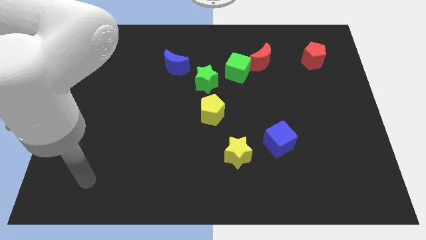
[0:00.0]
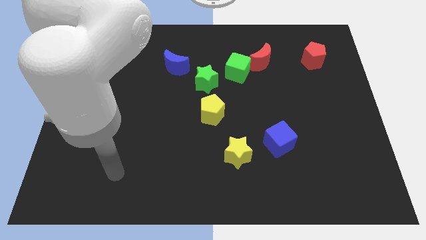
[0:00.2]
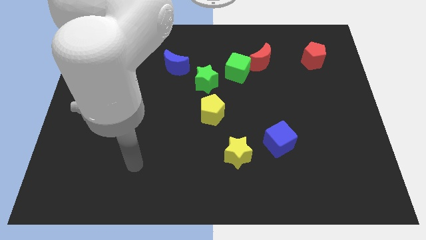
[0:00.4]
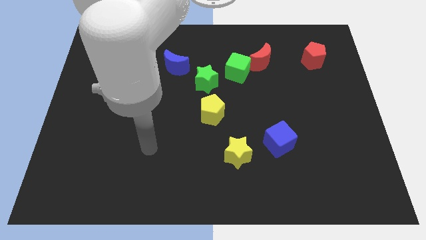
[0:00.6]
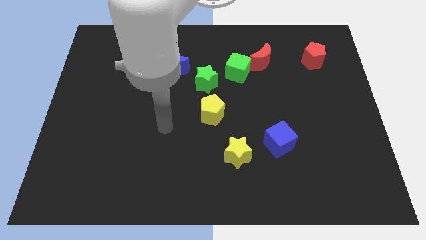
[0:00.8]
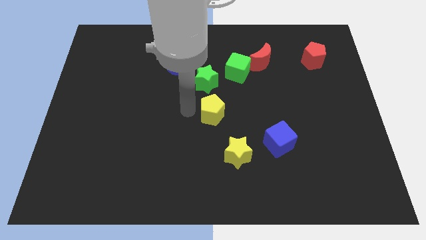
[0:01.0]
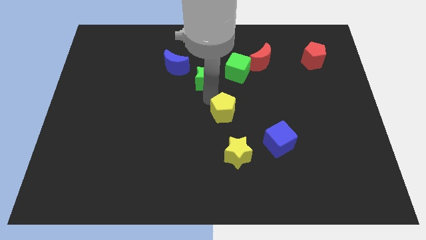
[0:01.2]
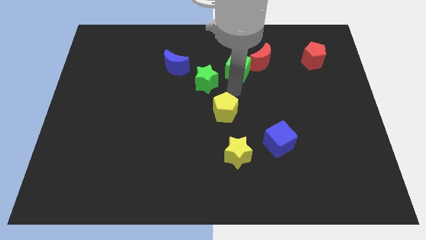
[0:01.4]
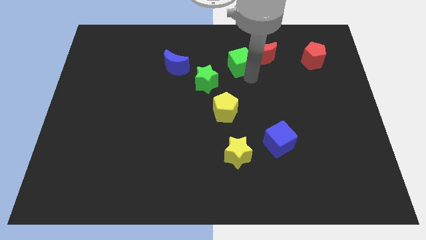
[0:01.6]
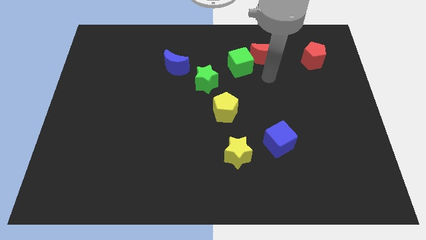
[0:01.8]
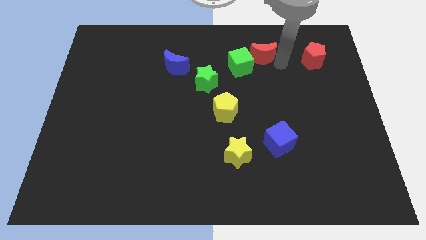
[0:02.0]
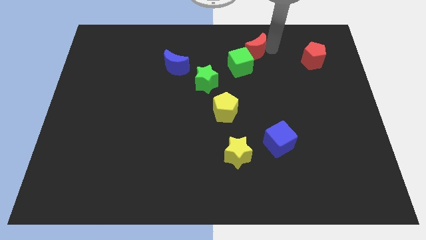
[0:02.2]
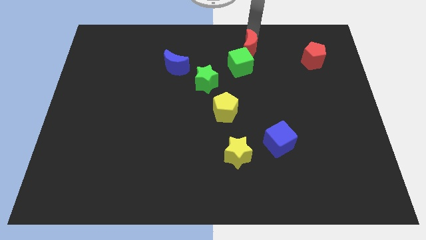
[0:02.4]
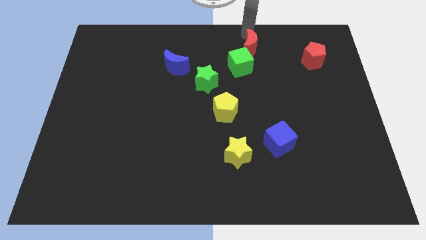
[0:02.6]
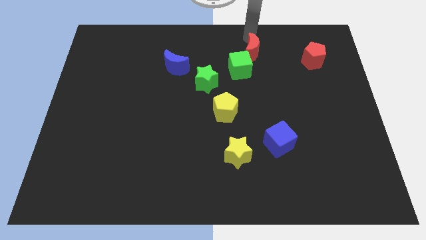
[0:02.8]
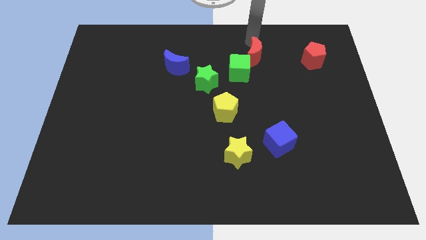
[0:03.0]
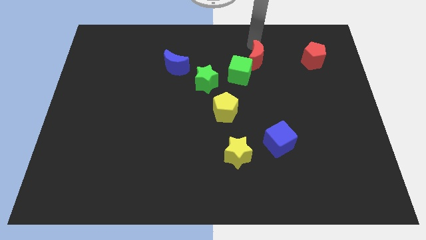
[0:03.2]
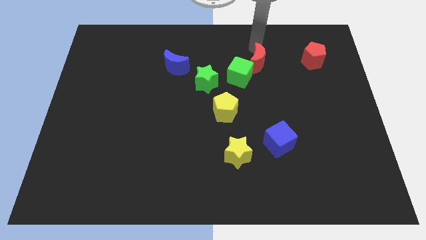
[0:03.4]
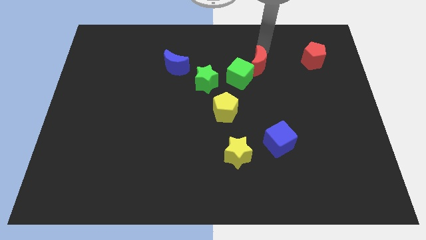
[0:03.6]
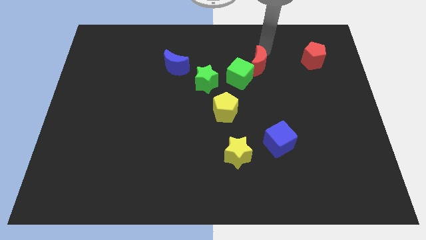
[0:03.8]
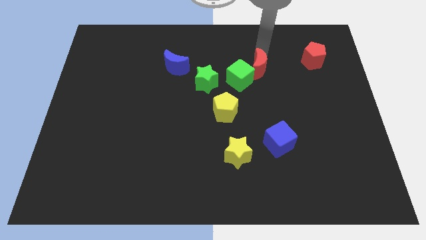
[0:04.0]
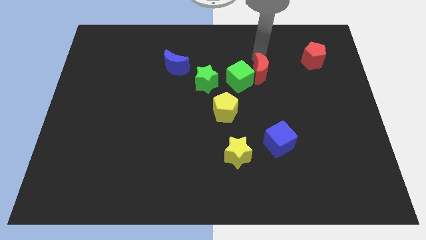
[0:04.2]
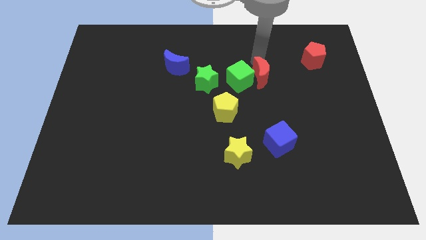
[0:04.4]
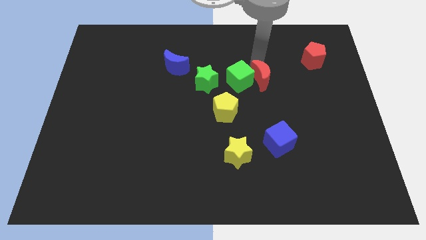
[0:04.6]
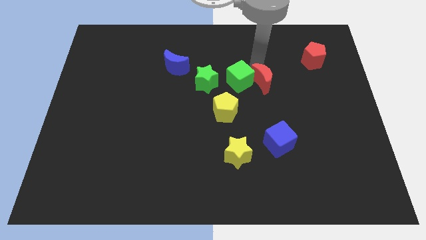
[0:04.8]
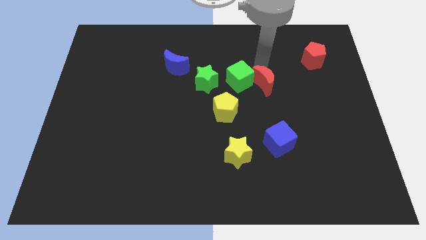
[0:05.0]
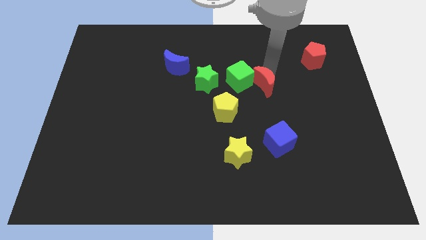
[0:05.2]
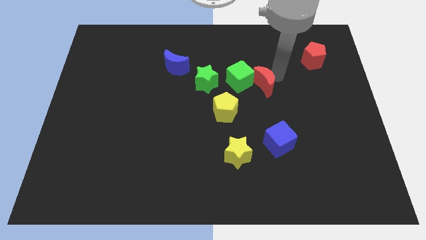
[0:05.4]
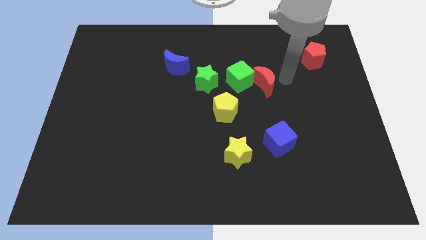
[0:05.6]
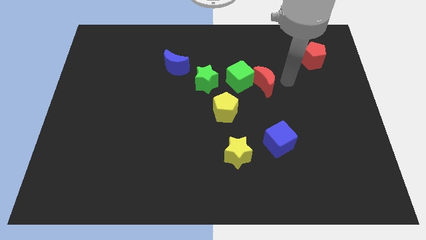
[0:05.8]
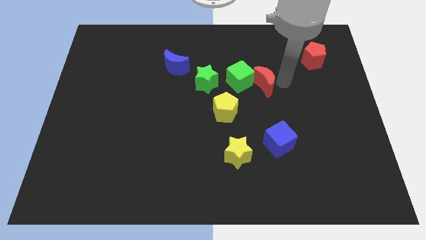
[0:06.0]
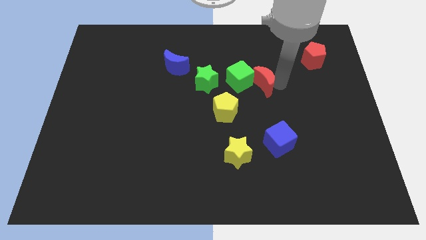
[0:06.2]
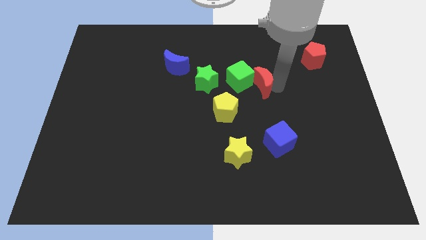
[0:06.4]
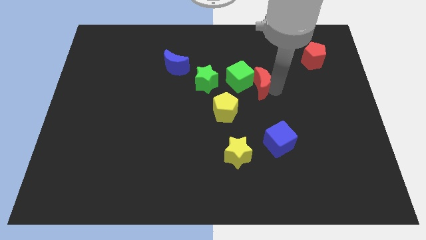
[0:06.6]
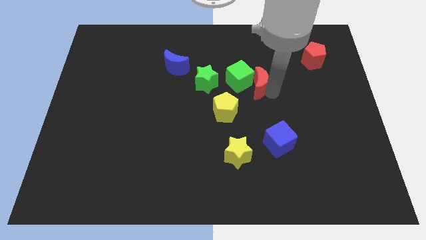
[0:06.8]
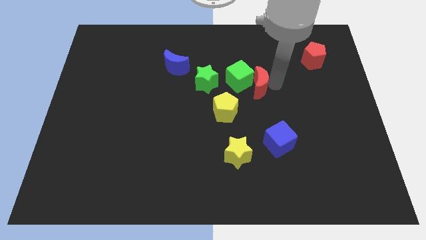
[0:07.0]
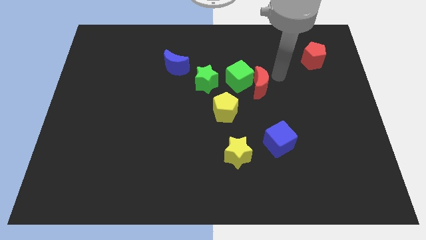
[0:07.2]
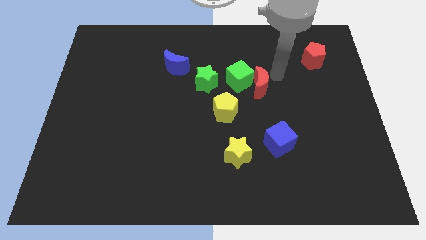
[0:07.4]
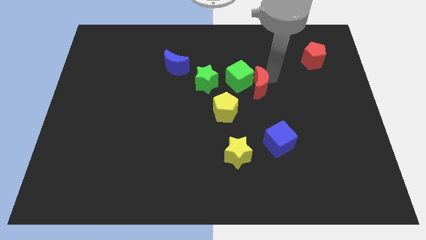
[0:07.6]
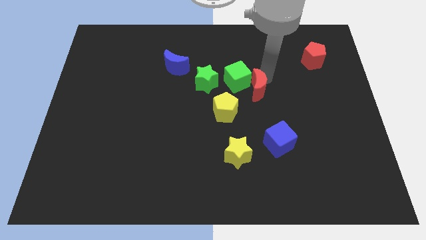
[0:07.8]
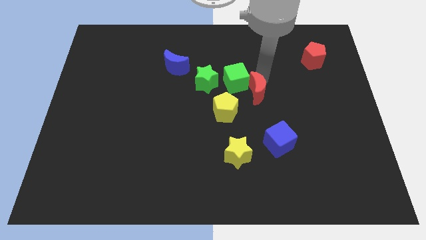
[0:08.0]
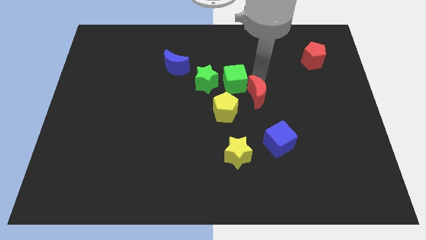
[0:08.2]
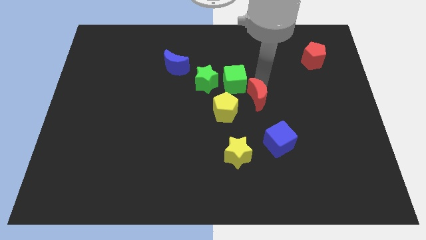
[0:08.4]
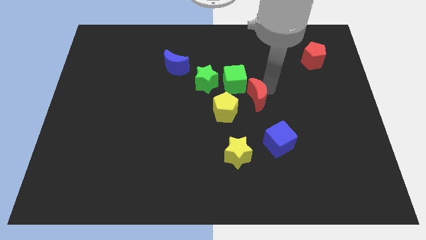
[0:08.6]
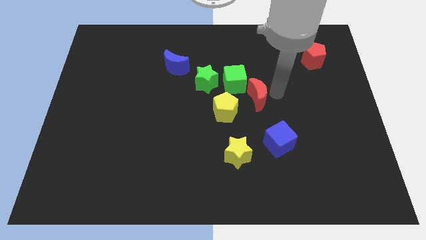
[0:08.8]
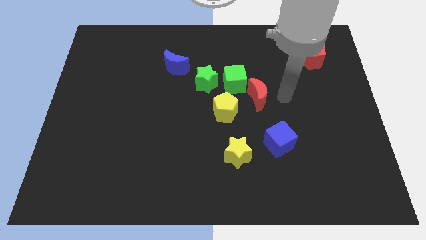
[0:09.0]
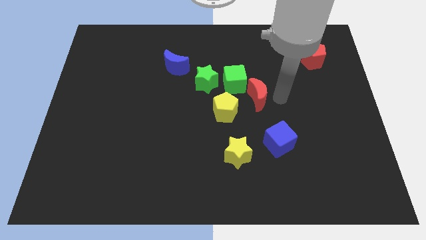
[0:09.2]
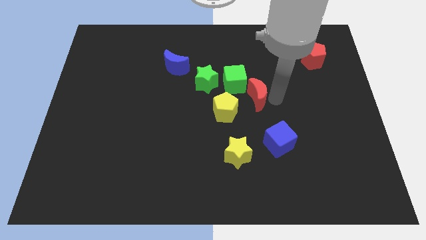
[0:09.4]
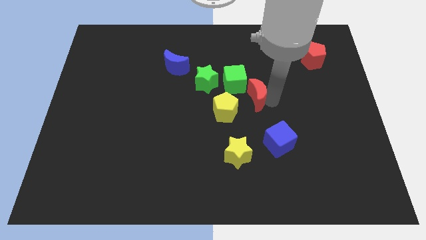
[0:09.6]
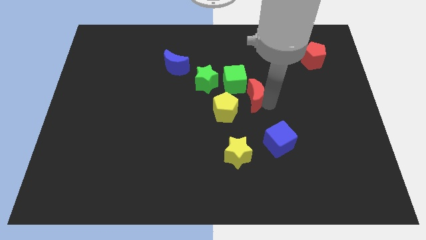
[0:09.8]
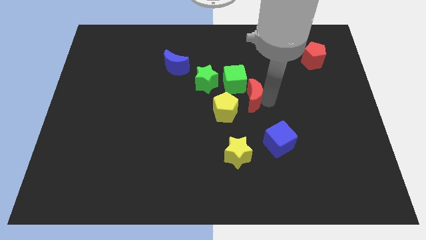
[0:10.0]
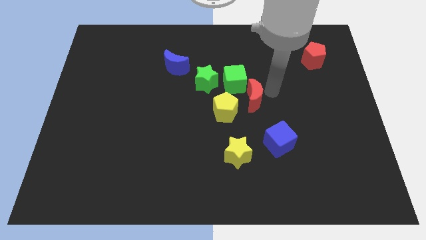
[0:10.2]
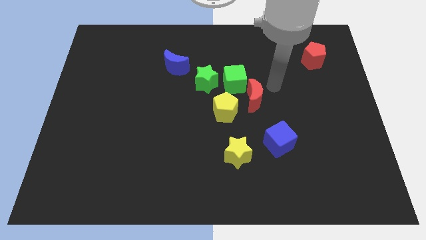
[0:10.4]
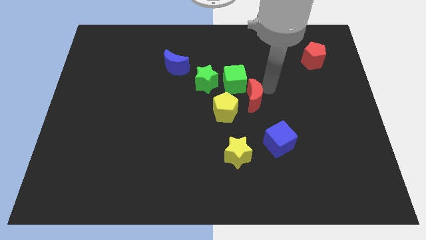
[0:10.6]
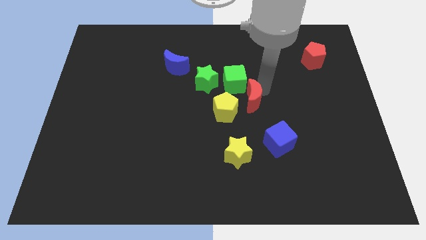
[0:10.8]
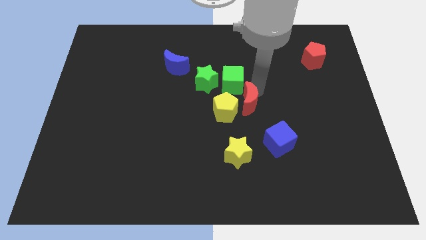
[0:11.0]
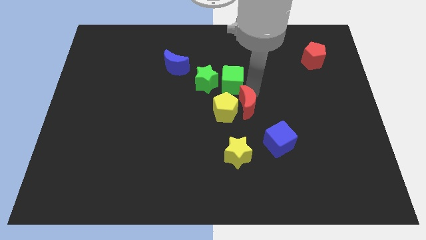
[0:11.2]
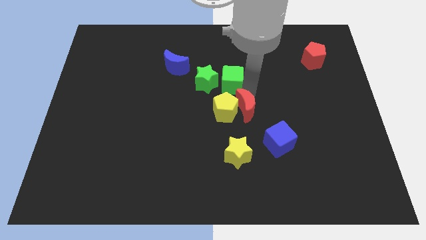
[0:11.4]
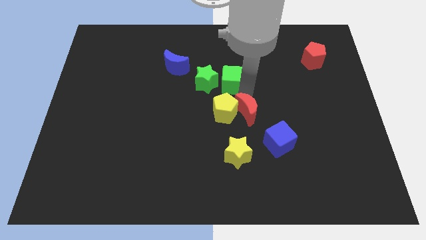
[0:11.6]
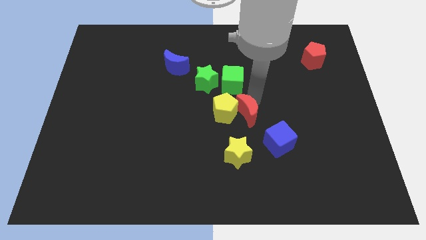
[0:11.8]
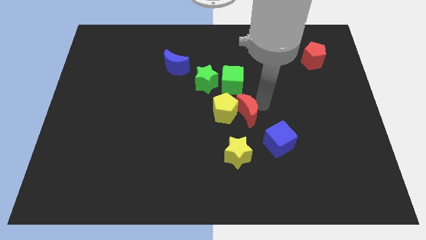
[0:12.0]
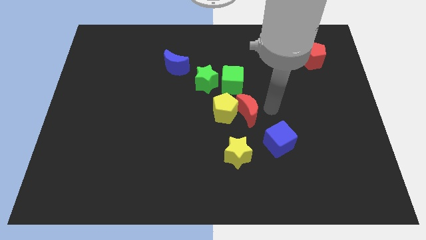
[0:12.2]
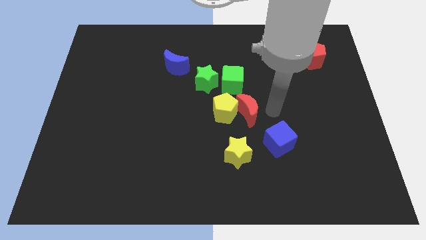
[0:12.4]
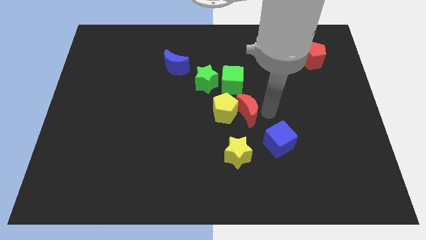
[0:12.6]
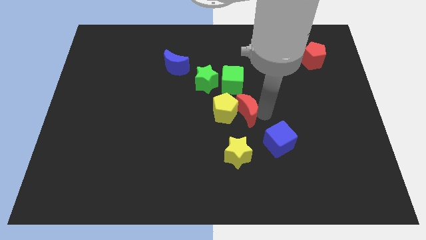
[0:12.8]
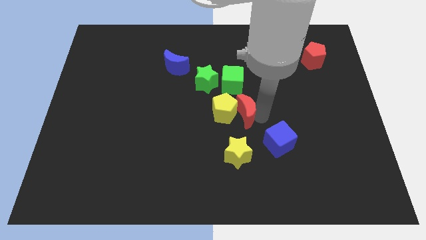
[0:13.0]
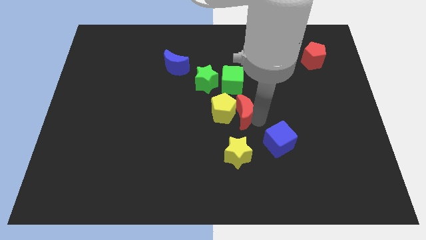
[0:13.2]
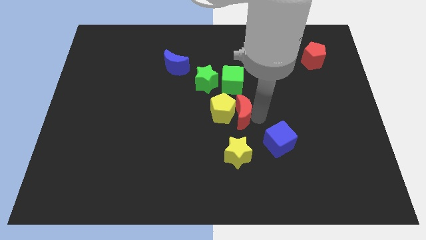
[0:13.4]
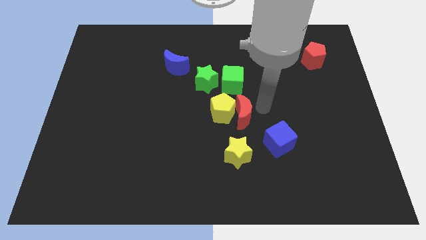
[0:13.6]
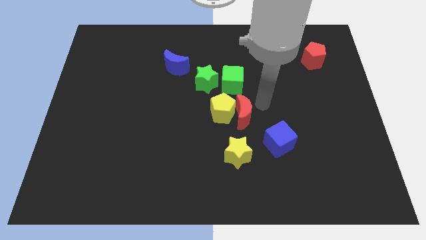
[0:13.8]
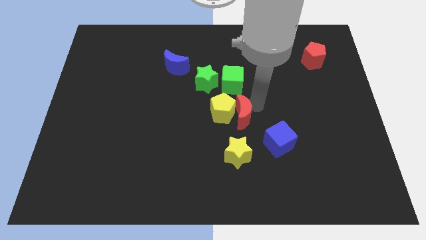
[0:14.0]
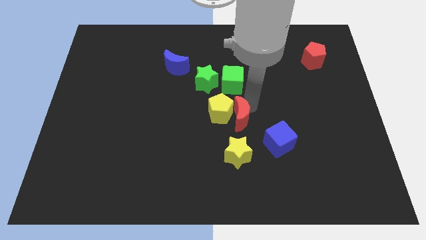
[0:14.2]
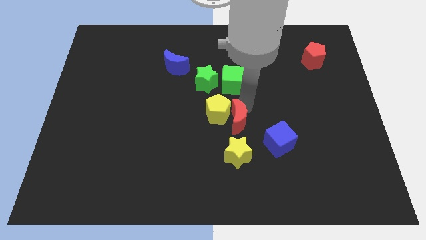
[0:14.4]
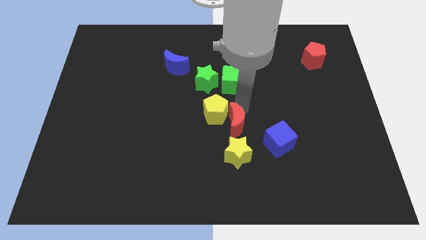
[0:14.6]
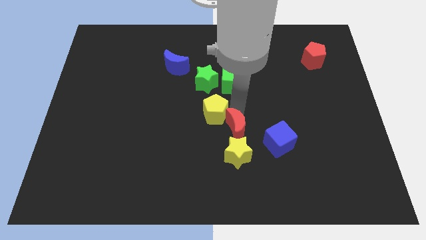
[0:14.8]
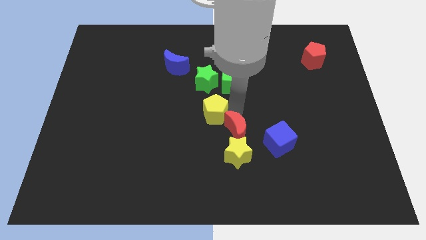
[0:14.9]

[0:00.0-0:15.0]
put the red moon diagonally up and to the left of the yellow star
